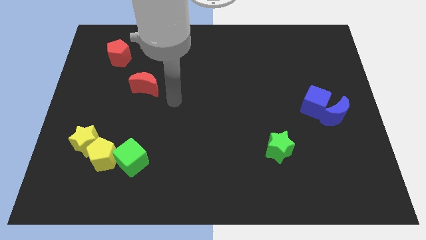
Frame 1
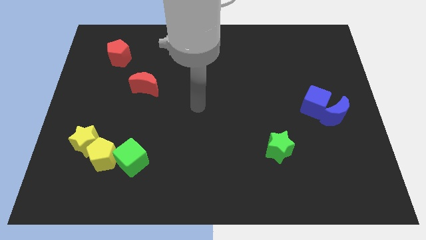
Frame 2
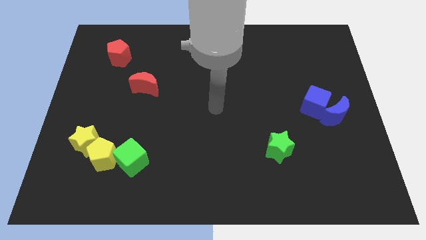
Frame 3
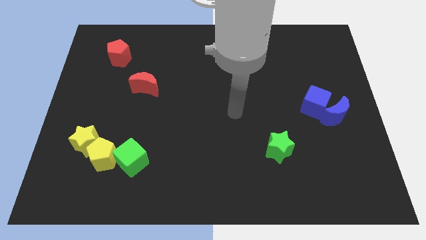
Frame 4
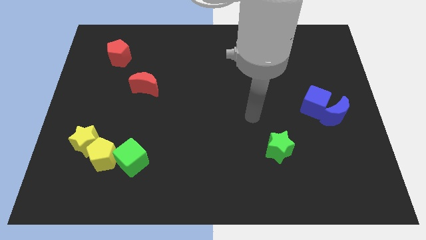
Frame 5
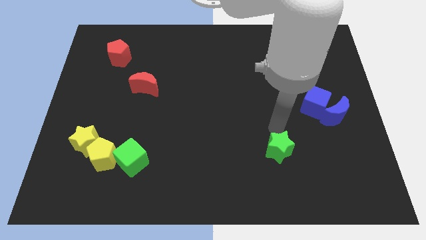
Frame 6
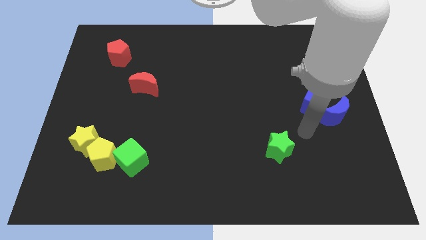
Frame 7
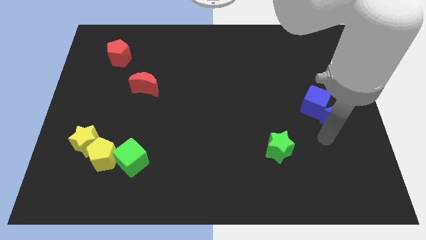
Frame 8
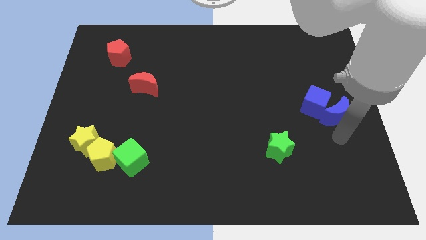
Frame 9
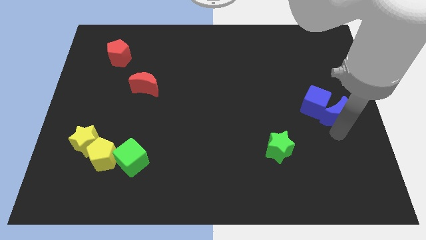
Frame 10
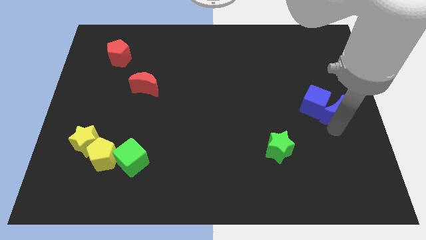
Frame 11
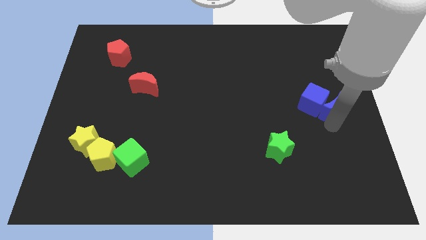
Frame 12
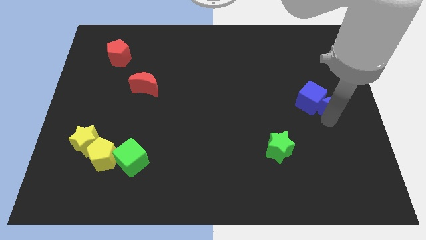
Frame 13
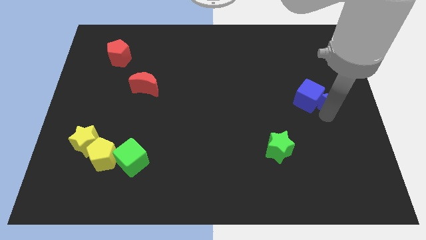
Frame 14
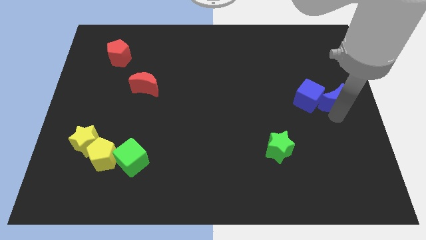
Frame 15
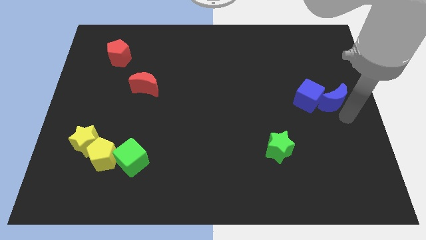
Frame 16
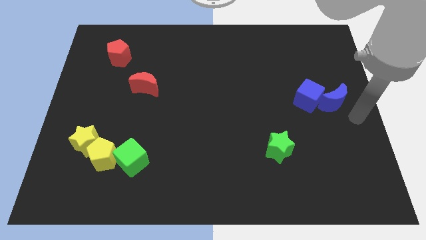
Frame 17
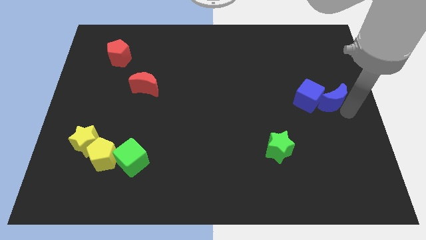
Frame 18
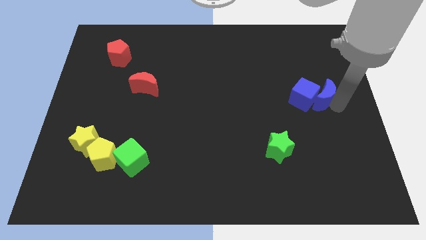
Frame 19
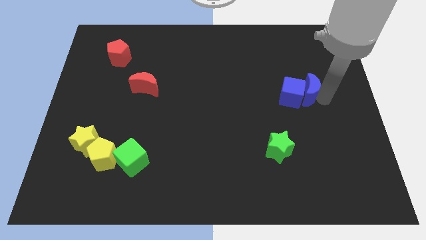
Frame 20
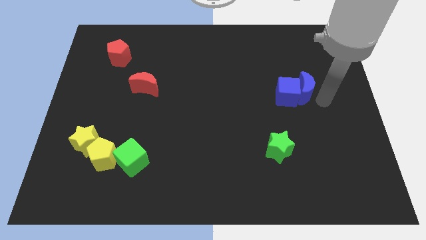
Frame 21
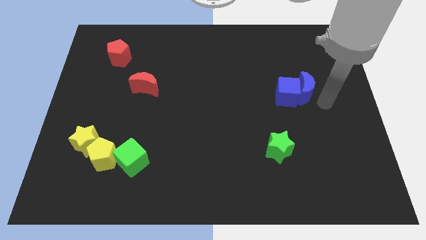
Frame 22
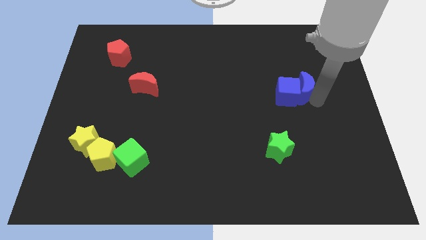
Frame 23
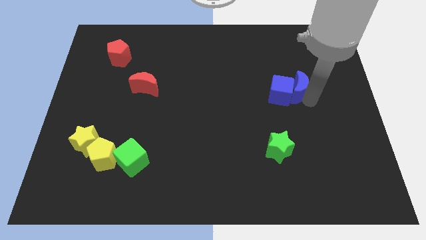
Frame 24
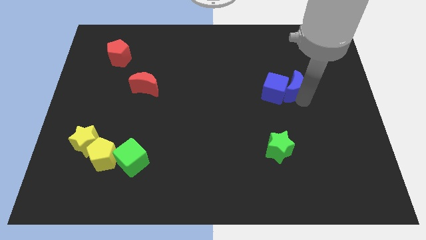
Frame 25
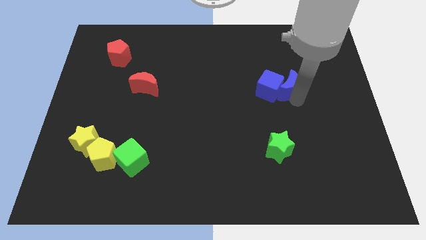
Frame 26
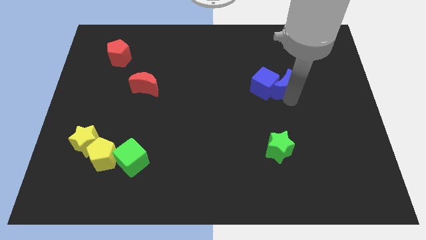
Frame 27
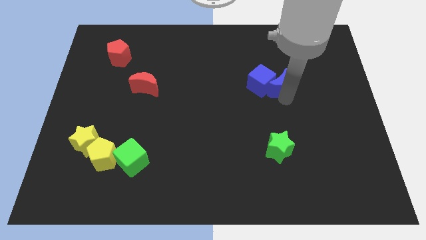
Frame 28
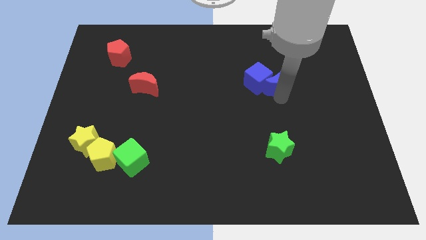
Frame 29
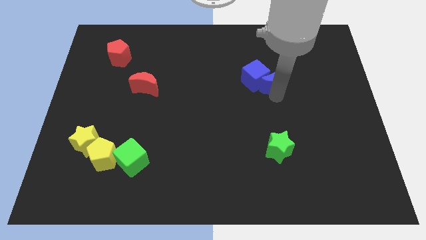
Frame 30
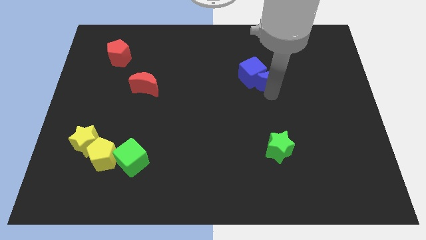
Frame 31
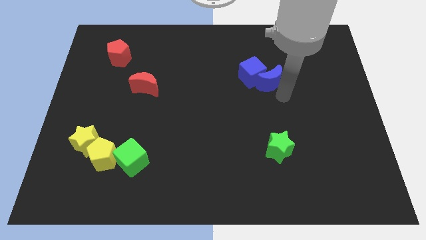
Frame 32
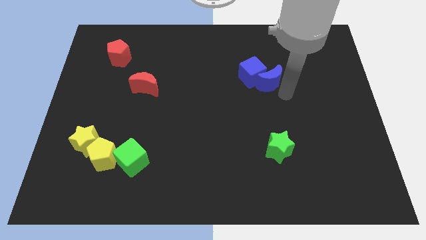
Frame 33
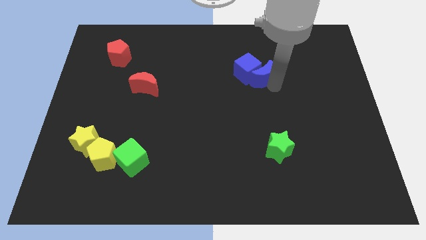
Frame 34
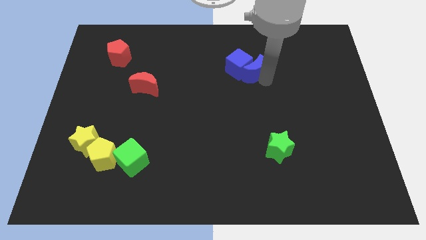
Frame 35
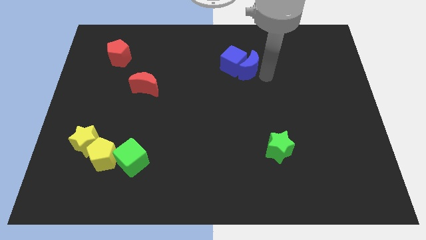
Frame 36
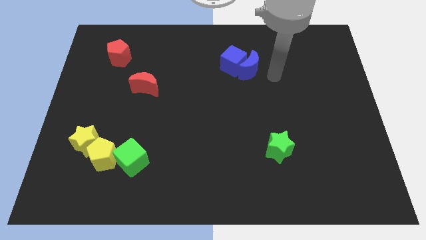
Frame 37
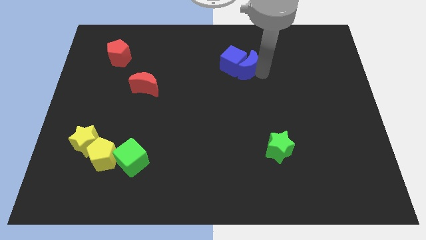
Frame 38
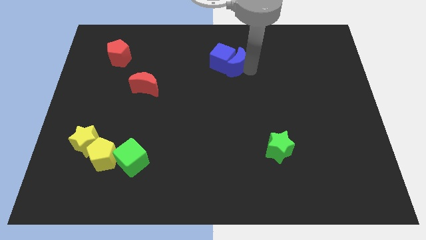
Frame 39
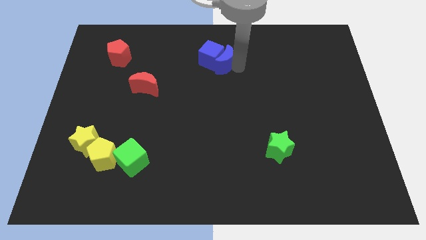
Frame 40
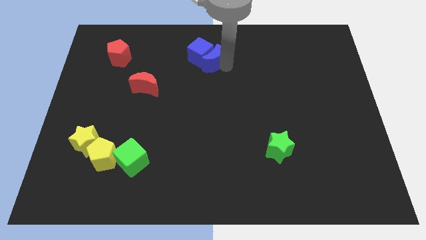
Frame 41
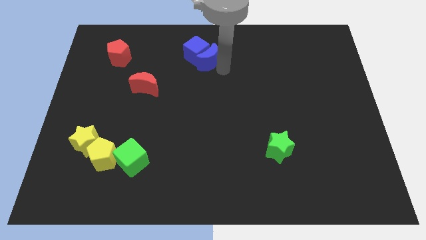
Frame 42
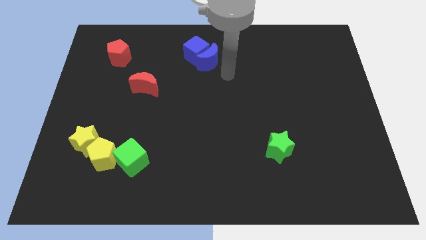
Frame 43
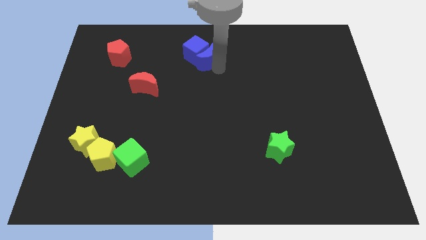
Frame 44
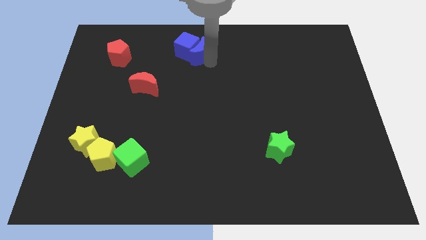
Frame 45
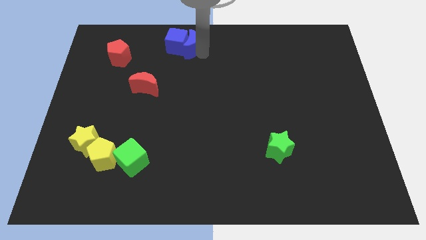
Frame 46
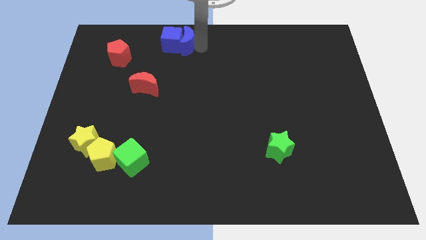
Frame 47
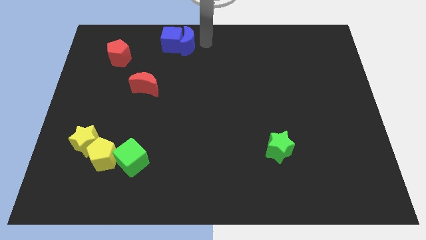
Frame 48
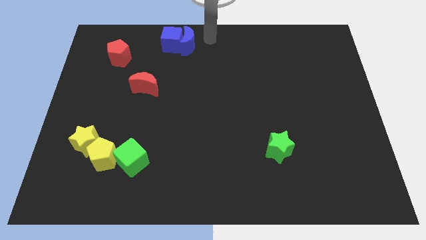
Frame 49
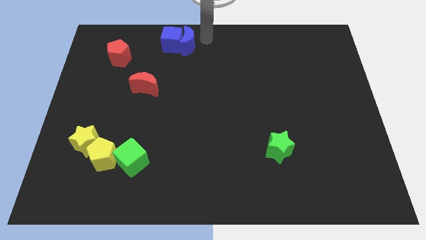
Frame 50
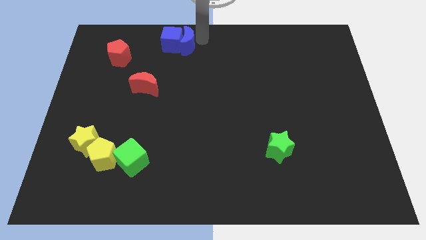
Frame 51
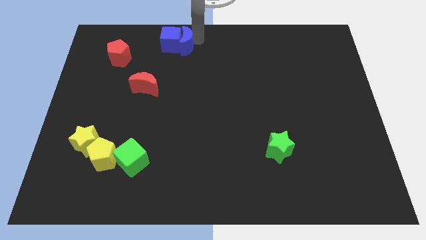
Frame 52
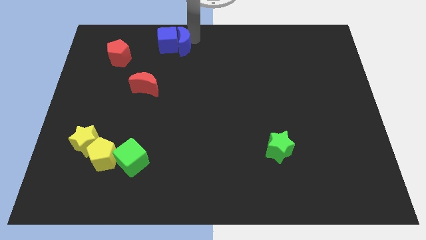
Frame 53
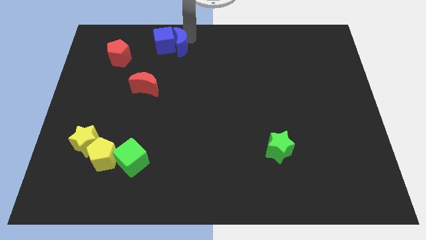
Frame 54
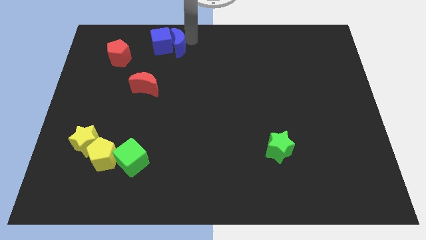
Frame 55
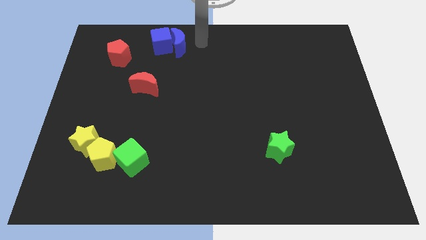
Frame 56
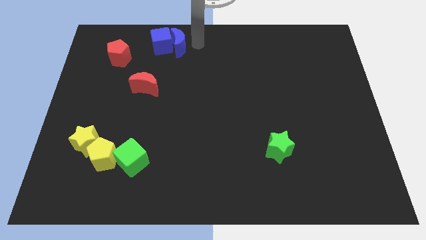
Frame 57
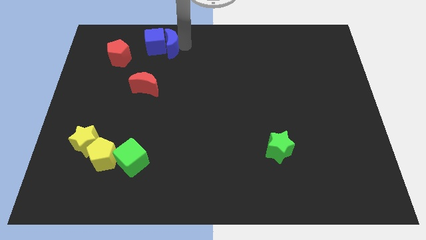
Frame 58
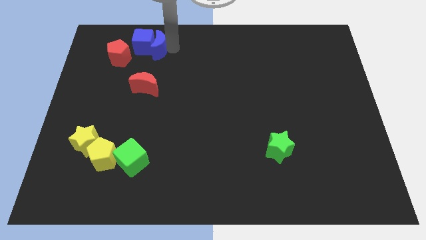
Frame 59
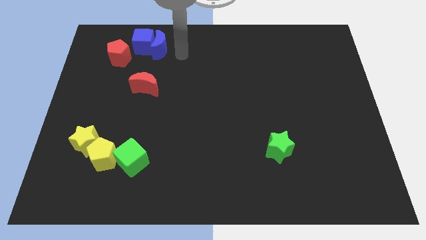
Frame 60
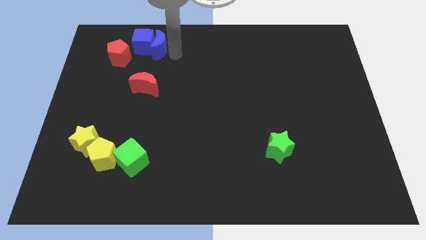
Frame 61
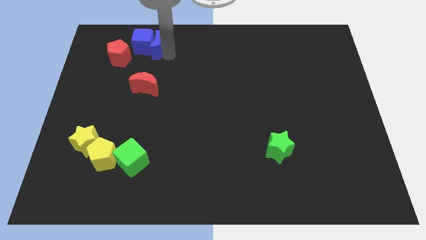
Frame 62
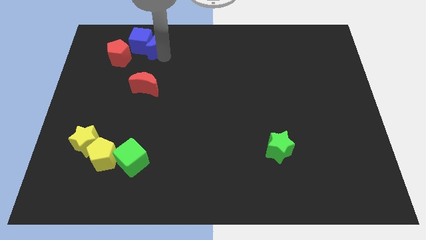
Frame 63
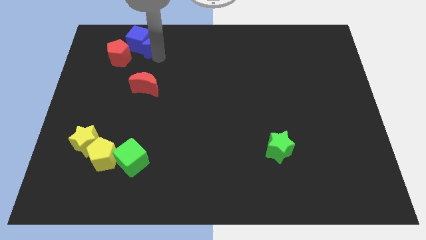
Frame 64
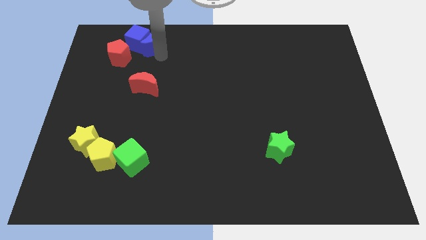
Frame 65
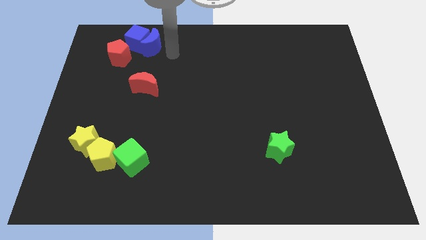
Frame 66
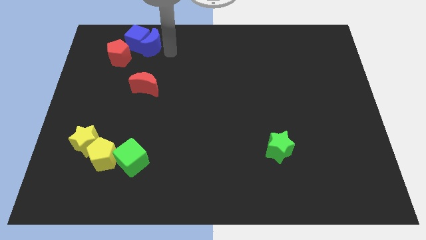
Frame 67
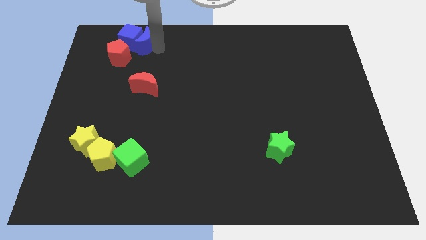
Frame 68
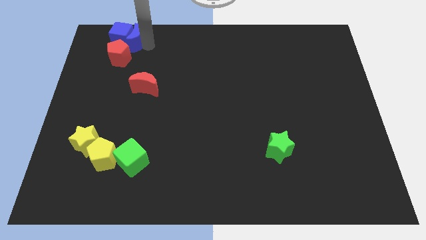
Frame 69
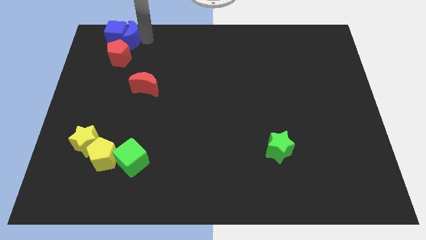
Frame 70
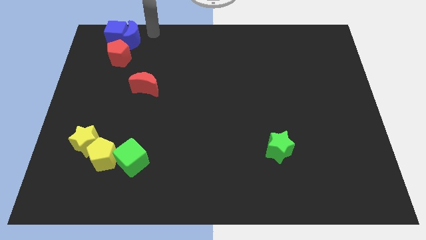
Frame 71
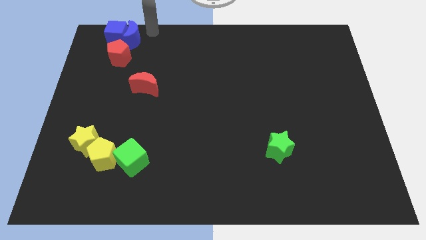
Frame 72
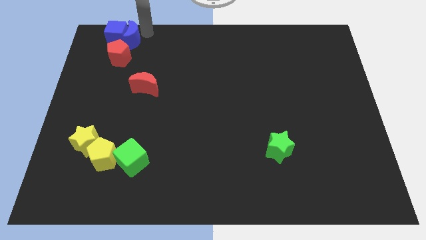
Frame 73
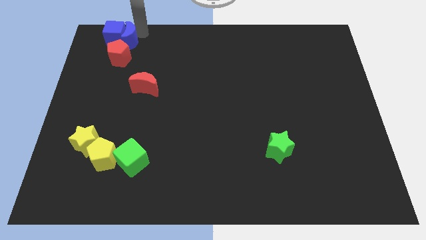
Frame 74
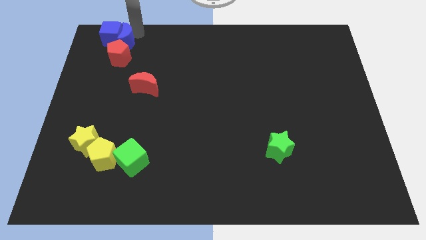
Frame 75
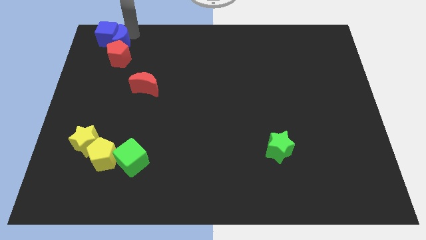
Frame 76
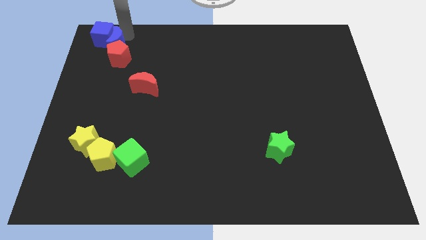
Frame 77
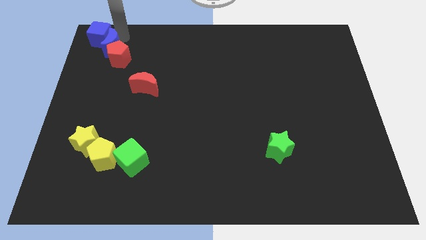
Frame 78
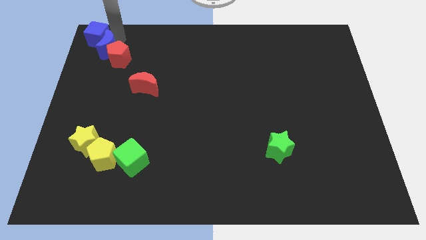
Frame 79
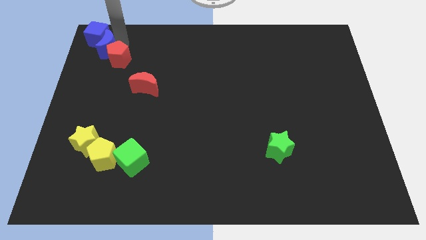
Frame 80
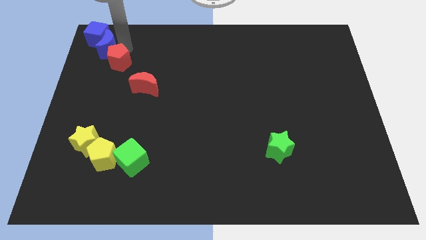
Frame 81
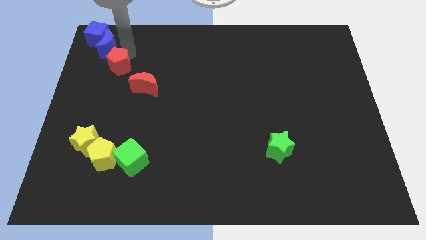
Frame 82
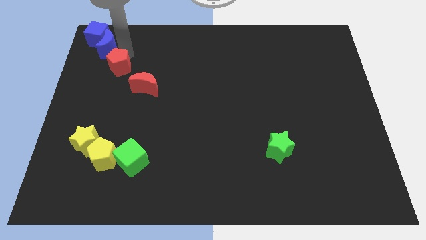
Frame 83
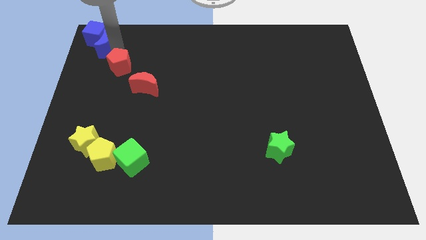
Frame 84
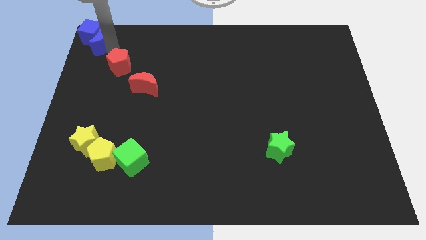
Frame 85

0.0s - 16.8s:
put the blue moon to the top left corner

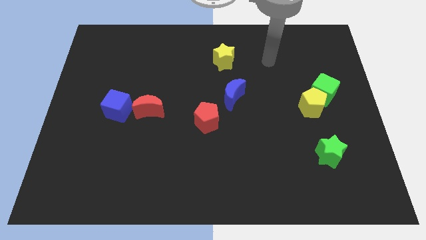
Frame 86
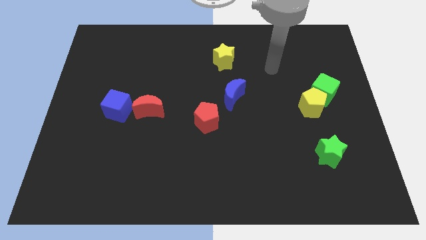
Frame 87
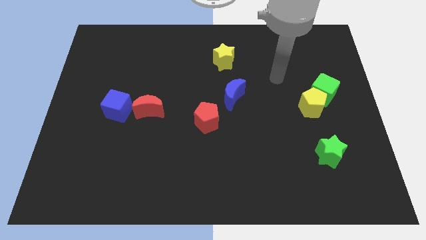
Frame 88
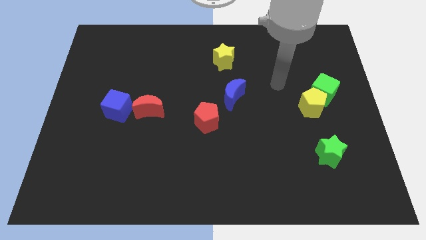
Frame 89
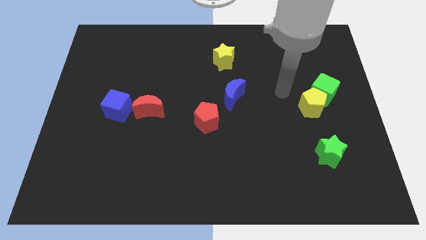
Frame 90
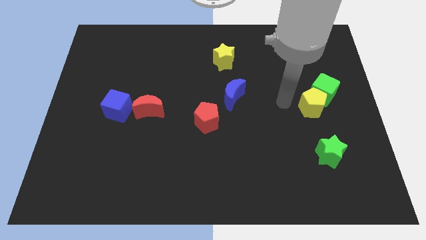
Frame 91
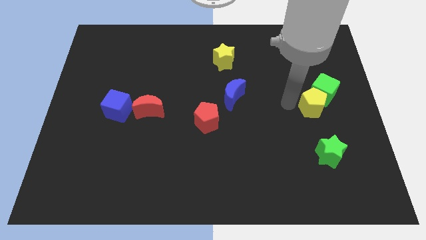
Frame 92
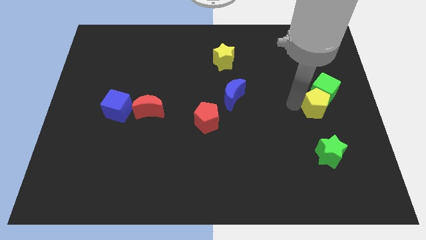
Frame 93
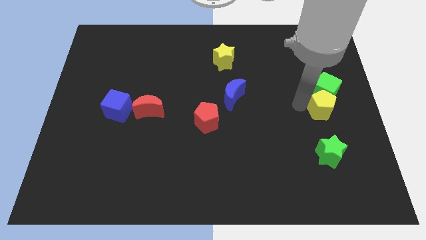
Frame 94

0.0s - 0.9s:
move the yellow pentagon to the right side of the board
